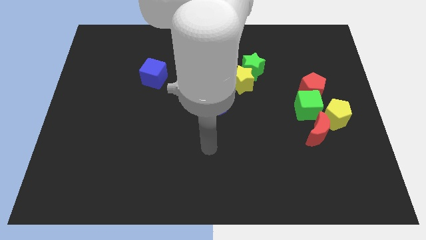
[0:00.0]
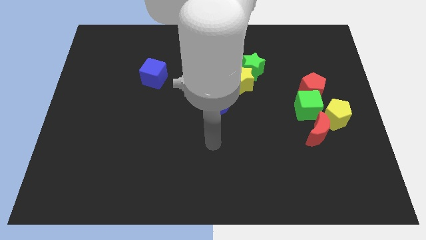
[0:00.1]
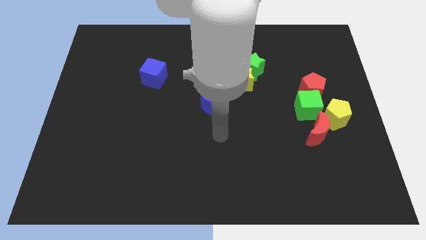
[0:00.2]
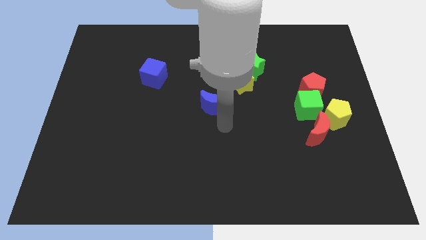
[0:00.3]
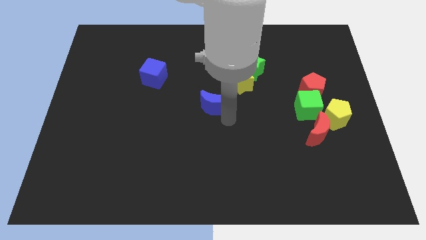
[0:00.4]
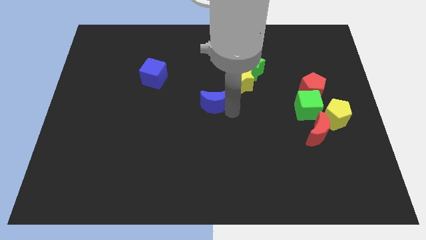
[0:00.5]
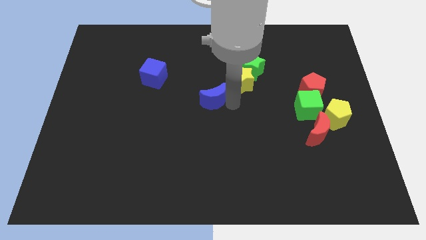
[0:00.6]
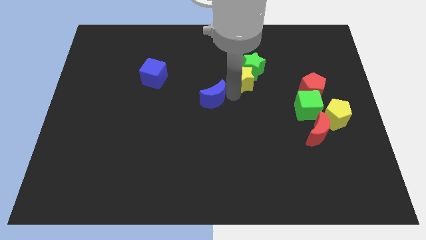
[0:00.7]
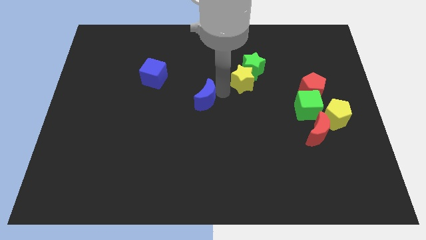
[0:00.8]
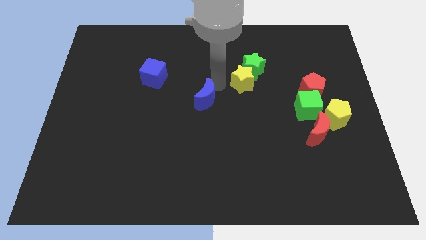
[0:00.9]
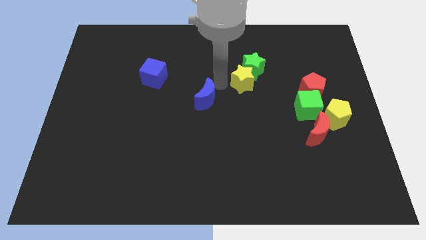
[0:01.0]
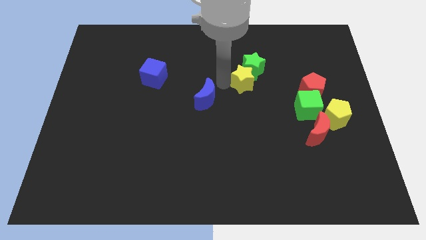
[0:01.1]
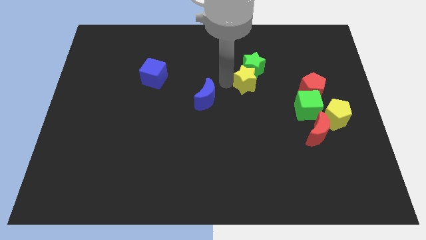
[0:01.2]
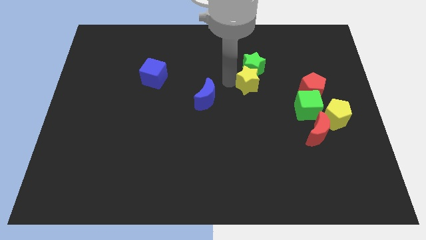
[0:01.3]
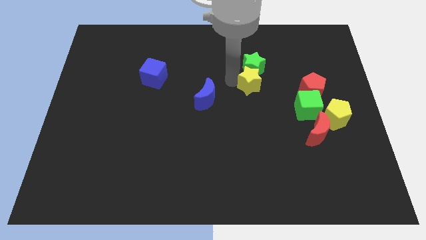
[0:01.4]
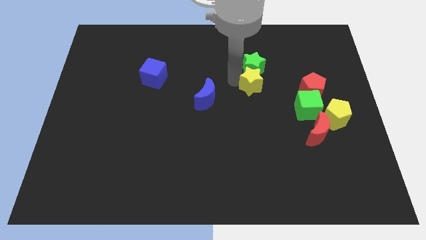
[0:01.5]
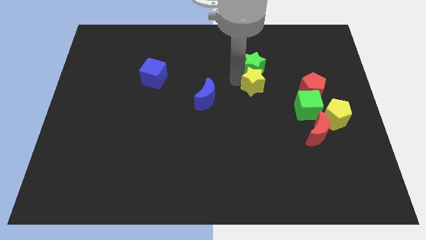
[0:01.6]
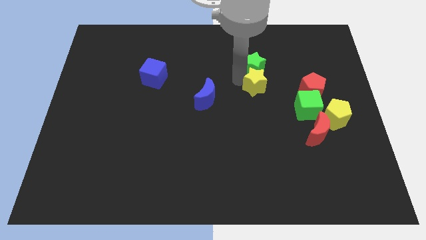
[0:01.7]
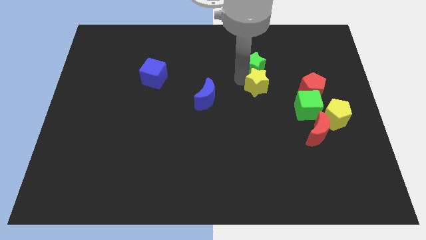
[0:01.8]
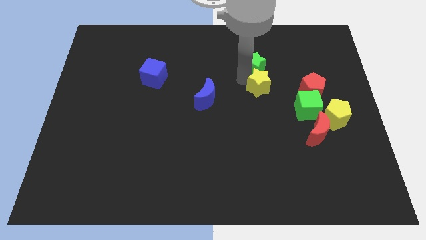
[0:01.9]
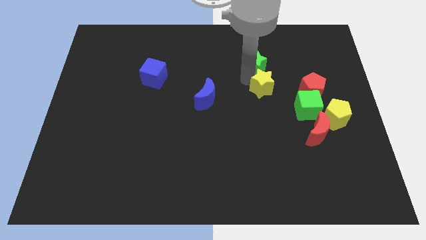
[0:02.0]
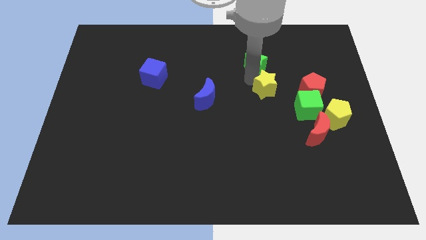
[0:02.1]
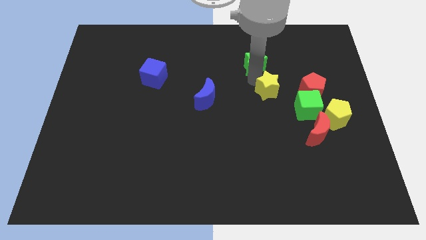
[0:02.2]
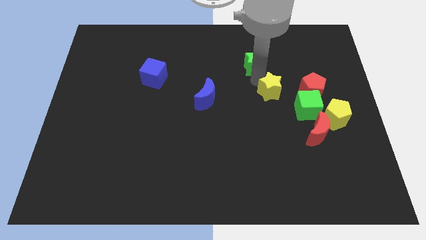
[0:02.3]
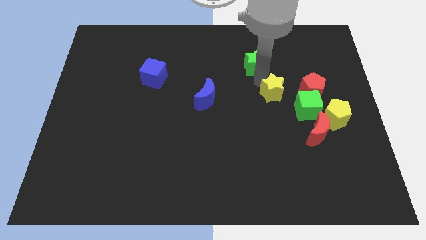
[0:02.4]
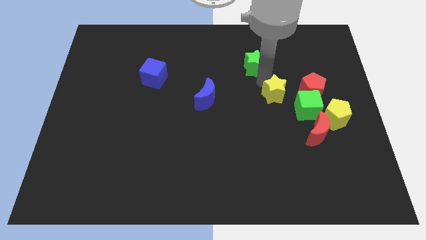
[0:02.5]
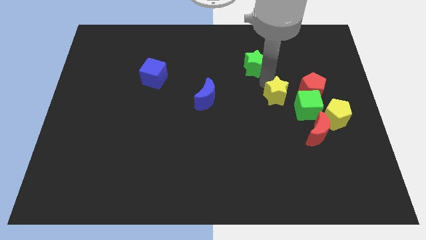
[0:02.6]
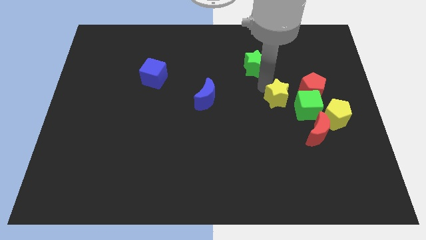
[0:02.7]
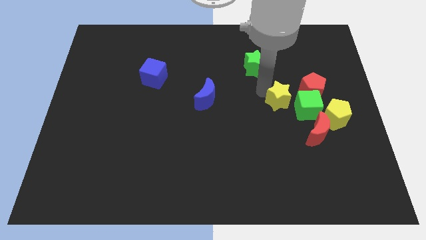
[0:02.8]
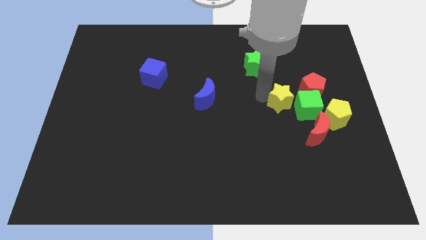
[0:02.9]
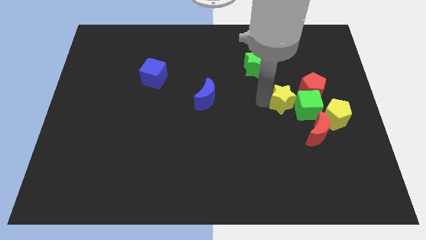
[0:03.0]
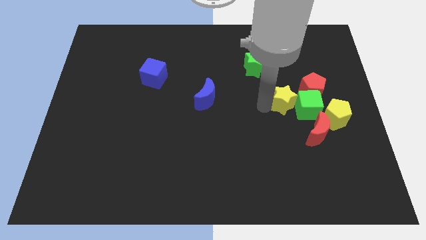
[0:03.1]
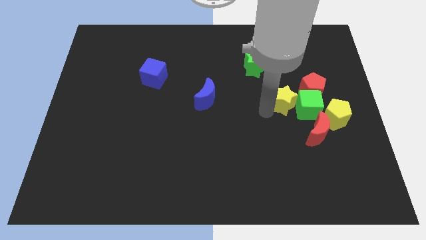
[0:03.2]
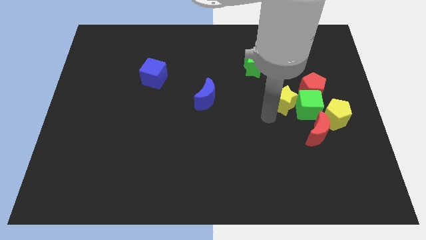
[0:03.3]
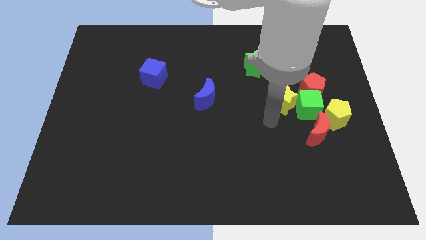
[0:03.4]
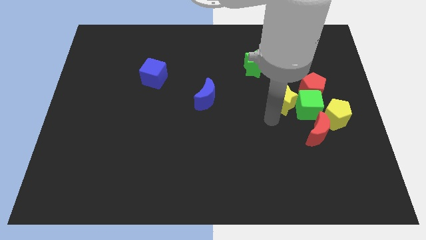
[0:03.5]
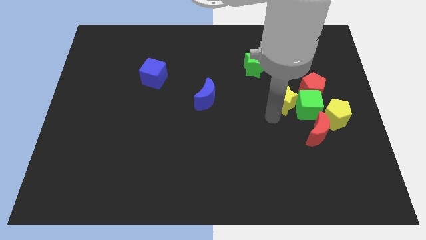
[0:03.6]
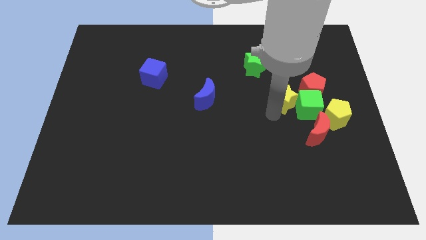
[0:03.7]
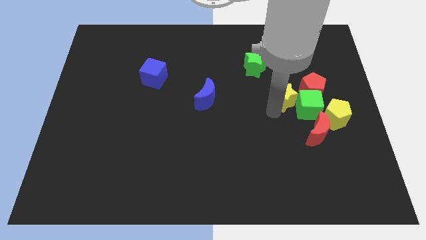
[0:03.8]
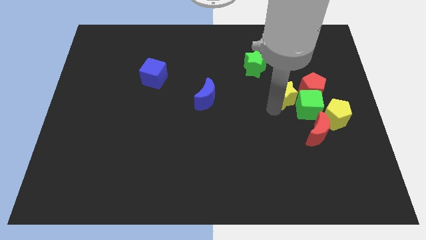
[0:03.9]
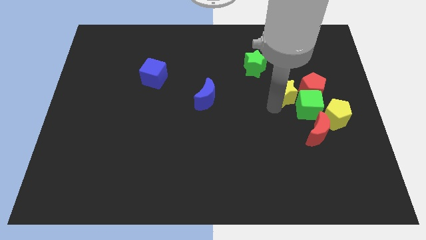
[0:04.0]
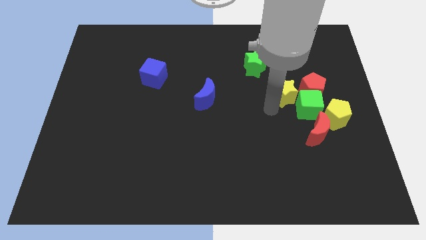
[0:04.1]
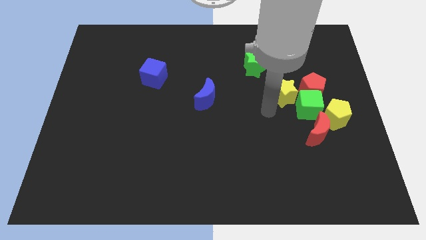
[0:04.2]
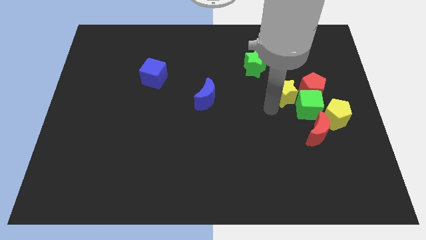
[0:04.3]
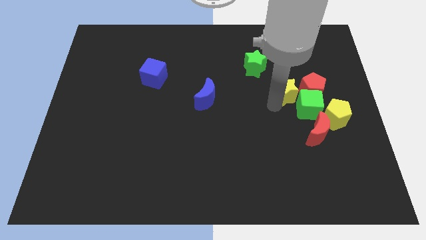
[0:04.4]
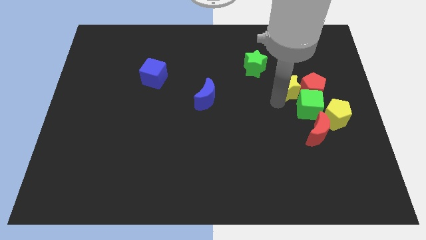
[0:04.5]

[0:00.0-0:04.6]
put the yellow star towards the red pentagon

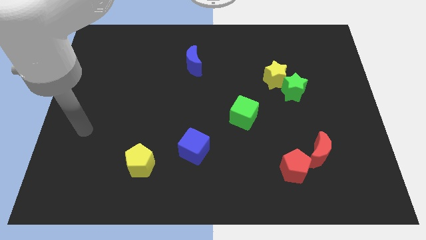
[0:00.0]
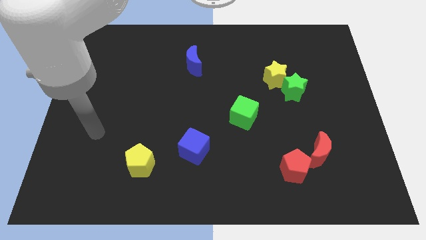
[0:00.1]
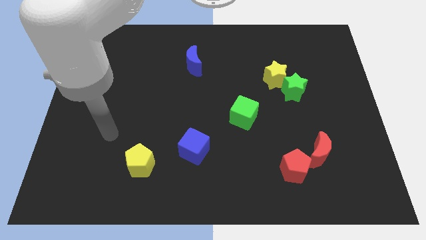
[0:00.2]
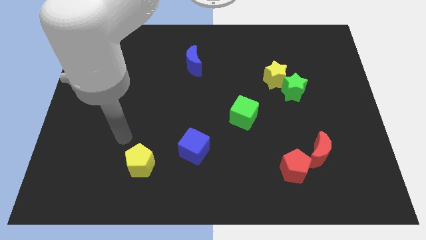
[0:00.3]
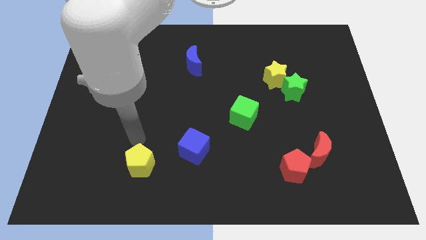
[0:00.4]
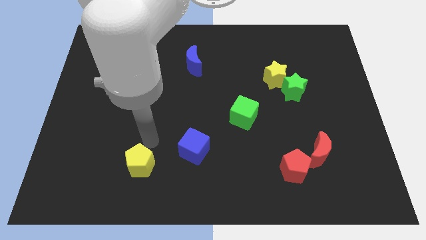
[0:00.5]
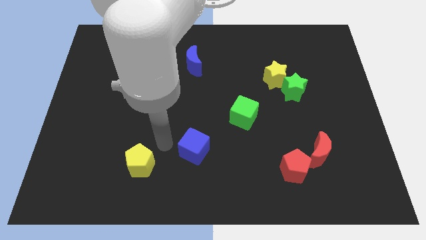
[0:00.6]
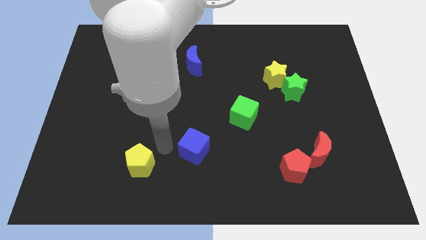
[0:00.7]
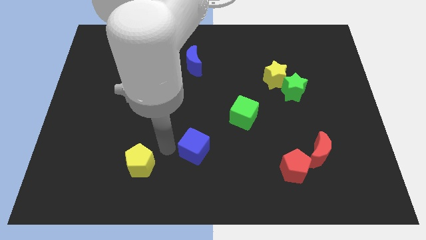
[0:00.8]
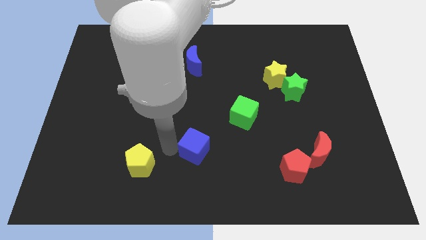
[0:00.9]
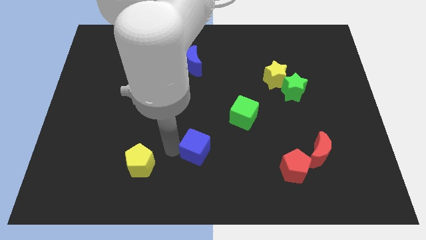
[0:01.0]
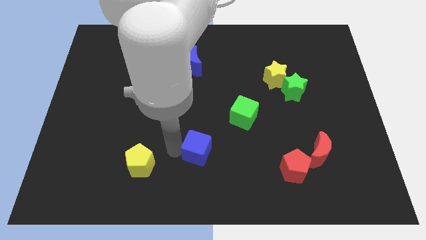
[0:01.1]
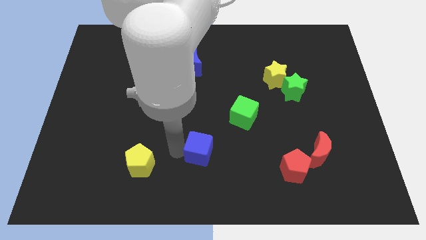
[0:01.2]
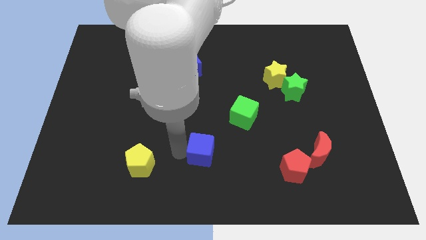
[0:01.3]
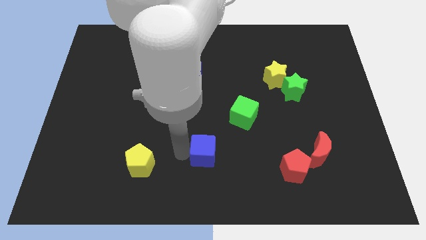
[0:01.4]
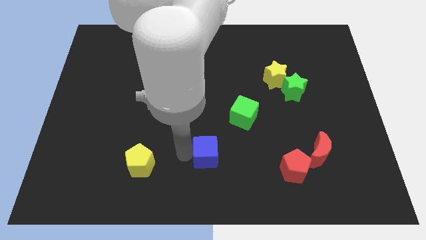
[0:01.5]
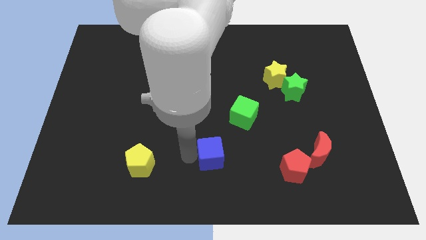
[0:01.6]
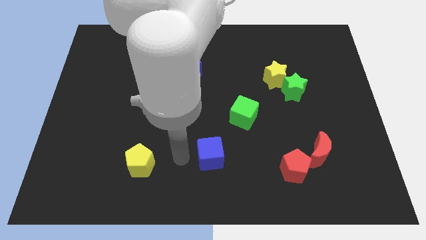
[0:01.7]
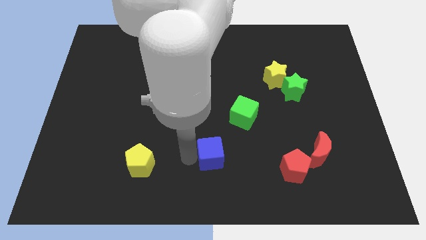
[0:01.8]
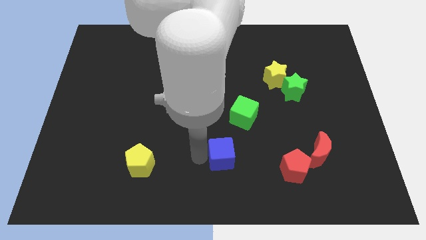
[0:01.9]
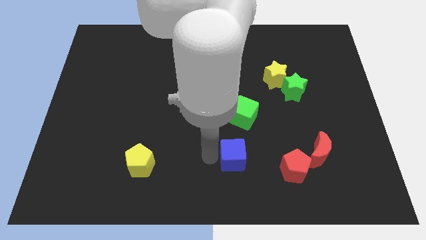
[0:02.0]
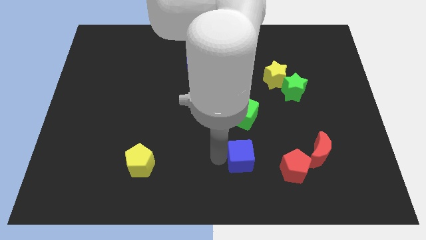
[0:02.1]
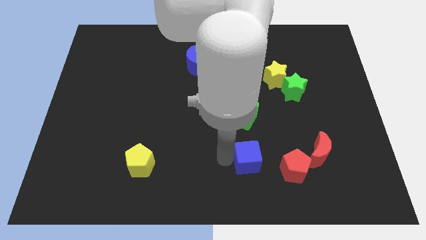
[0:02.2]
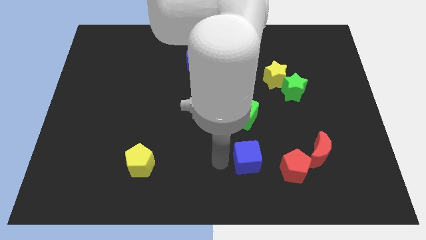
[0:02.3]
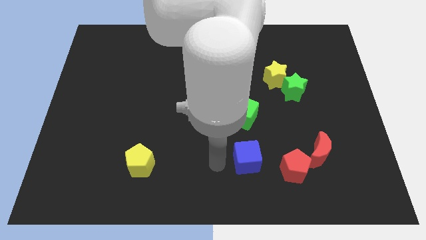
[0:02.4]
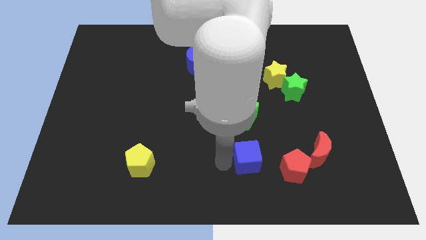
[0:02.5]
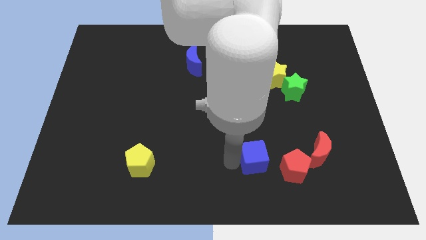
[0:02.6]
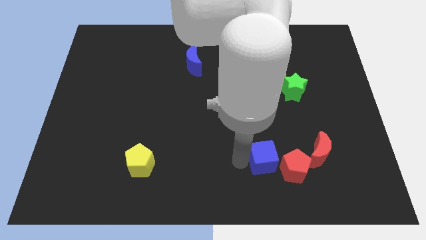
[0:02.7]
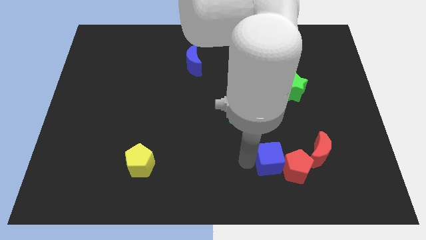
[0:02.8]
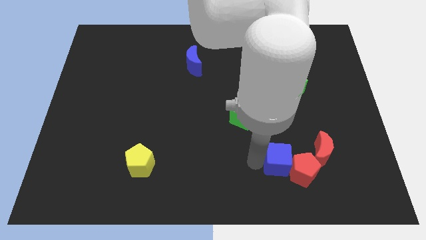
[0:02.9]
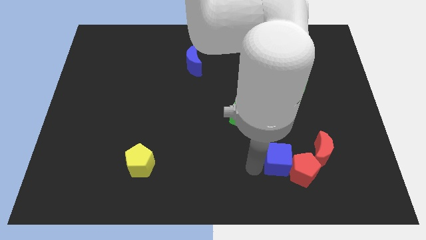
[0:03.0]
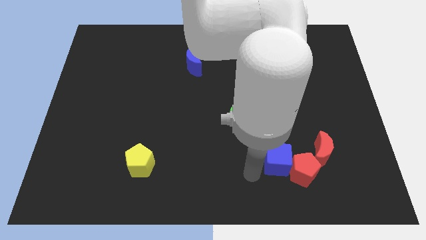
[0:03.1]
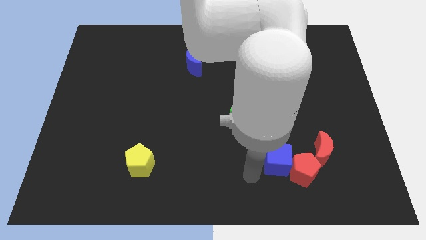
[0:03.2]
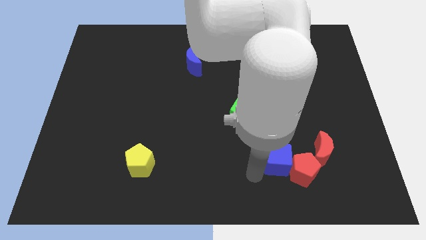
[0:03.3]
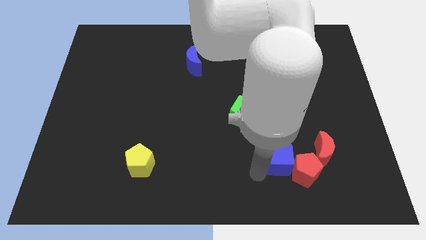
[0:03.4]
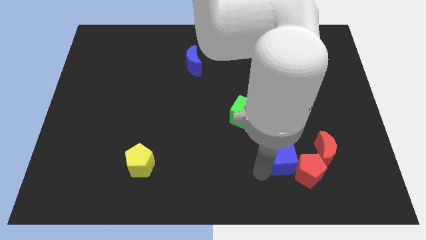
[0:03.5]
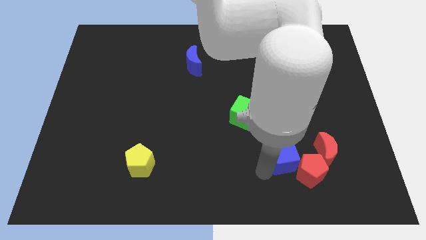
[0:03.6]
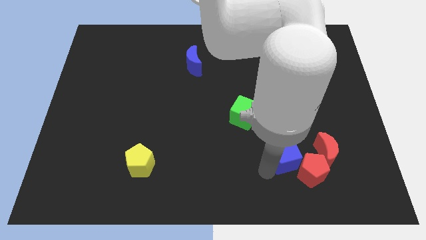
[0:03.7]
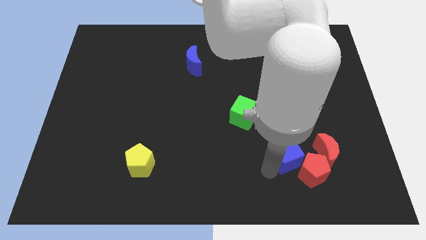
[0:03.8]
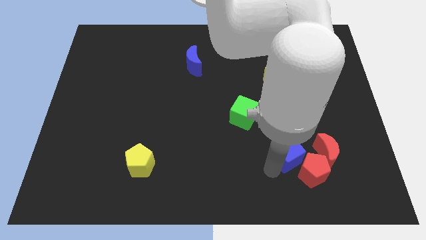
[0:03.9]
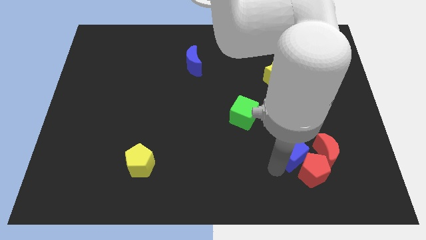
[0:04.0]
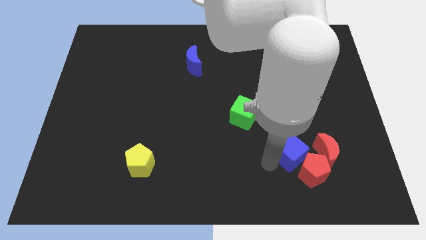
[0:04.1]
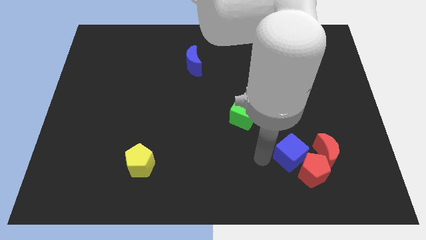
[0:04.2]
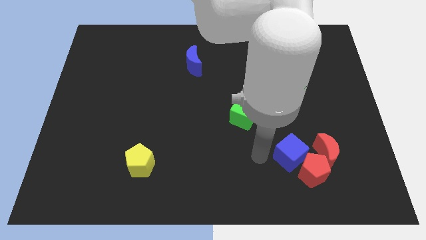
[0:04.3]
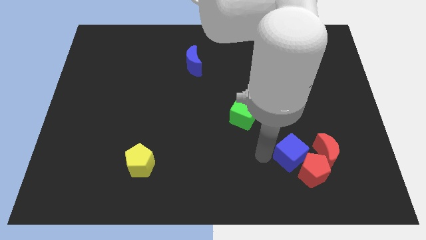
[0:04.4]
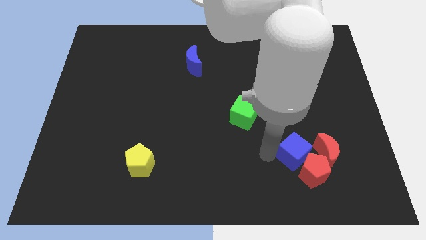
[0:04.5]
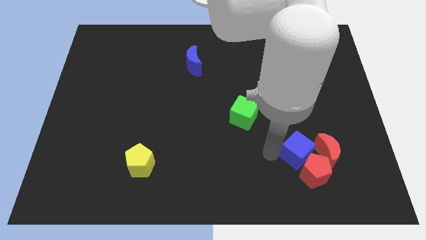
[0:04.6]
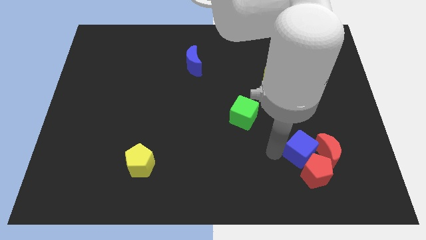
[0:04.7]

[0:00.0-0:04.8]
put the blue cube to the red moon
